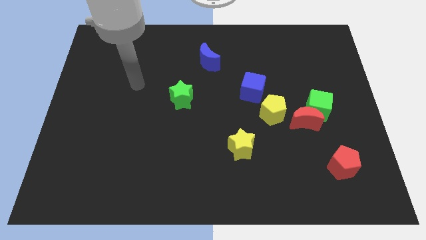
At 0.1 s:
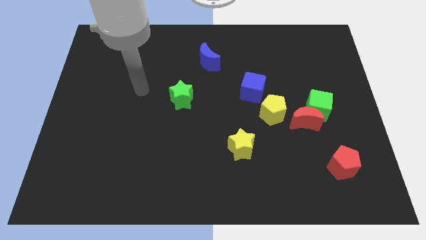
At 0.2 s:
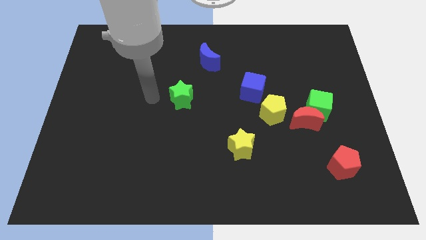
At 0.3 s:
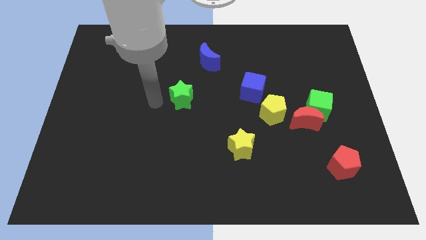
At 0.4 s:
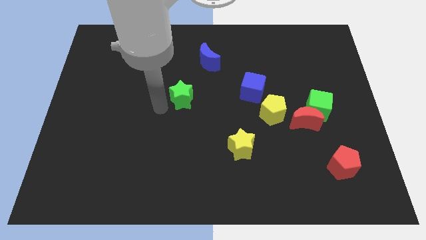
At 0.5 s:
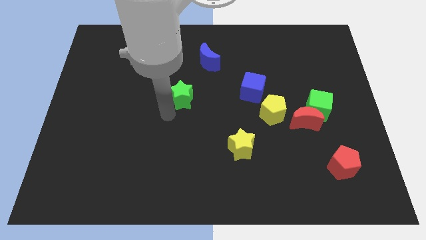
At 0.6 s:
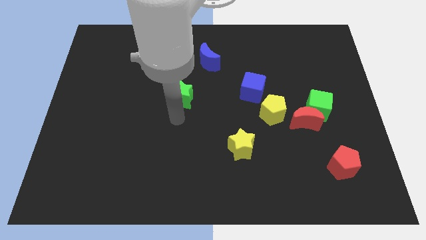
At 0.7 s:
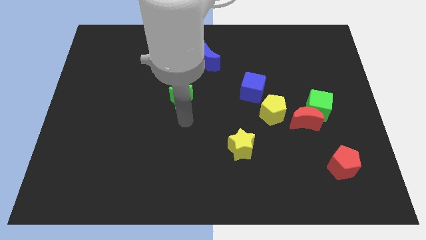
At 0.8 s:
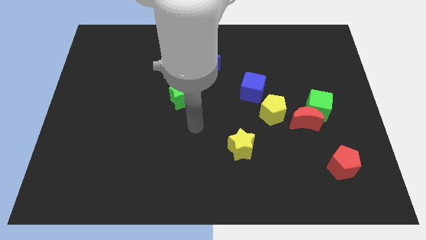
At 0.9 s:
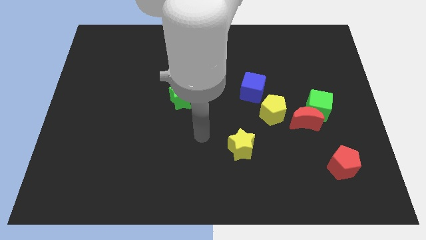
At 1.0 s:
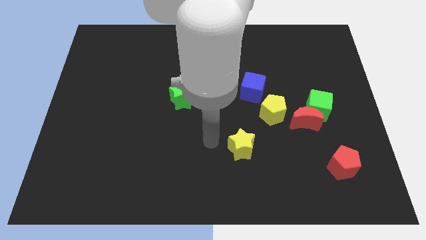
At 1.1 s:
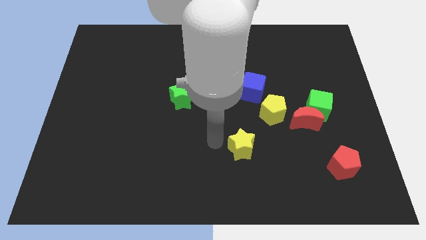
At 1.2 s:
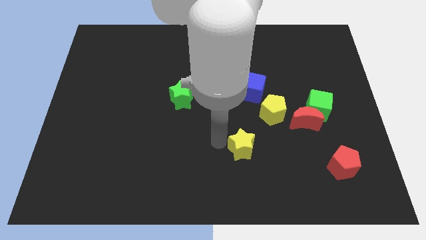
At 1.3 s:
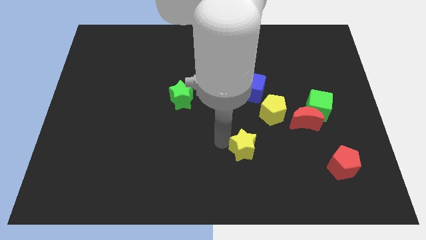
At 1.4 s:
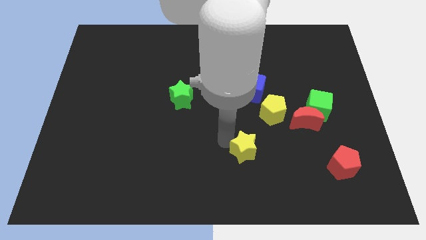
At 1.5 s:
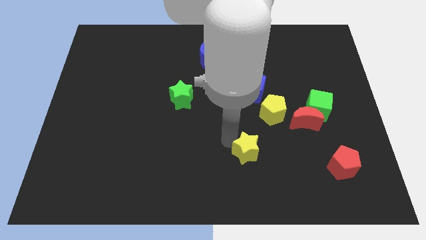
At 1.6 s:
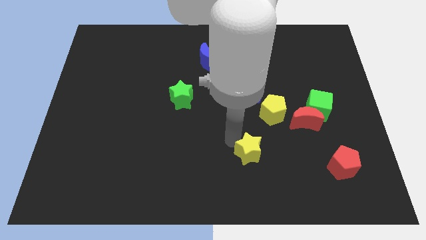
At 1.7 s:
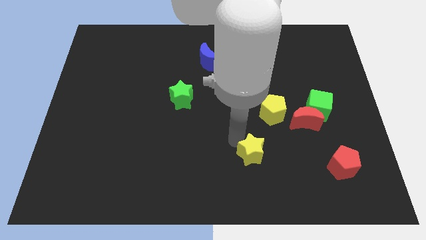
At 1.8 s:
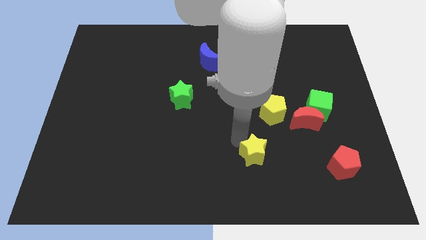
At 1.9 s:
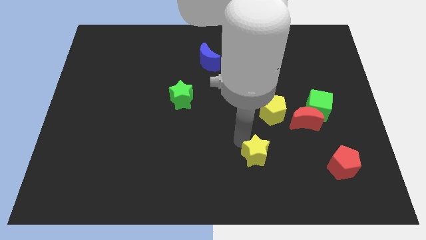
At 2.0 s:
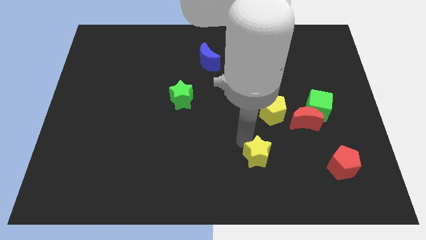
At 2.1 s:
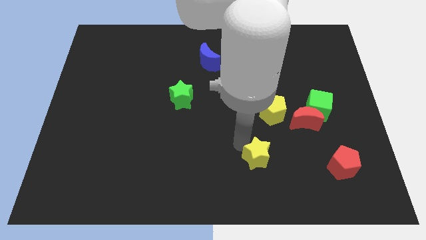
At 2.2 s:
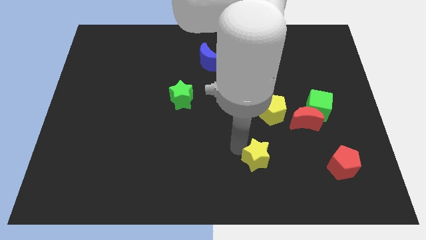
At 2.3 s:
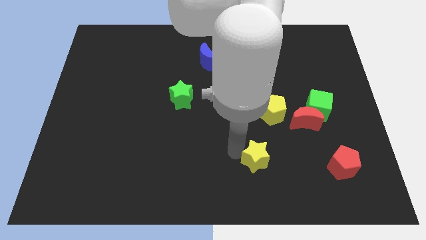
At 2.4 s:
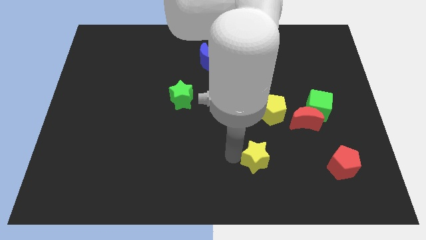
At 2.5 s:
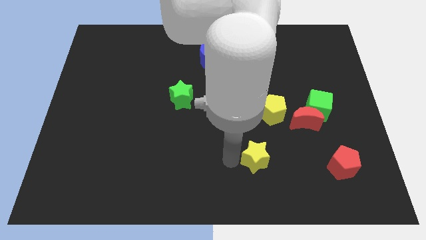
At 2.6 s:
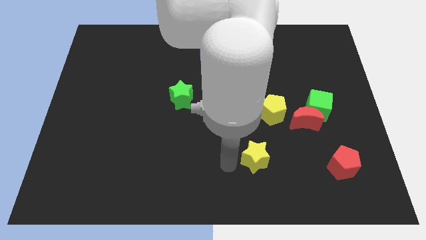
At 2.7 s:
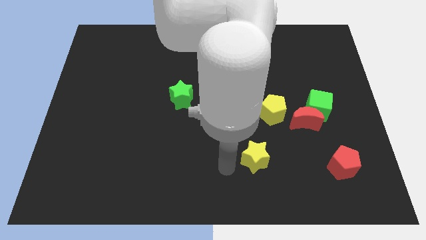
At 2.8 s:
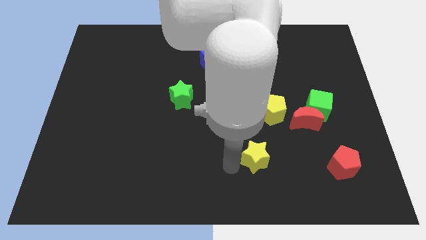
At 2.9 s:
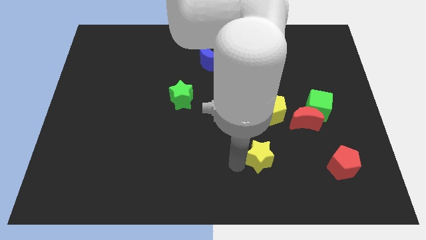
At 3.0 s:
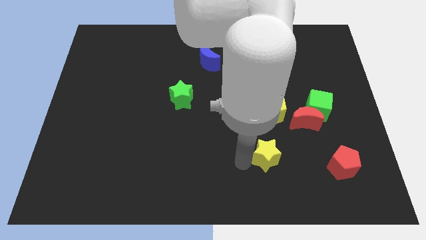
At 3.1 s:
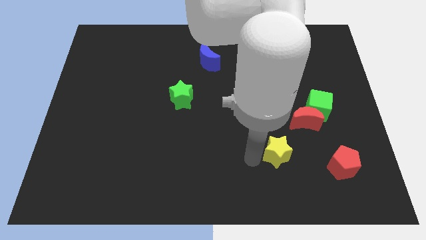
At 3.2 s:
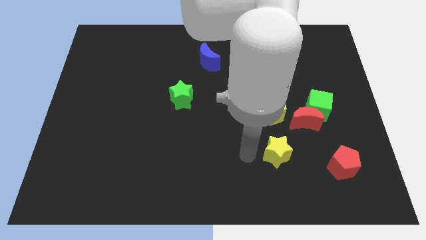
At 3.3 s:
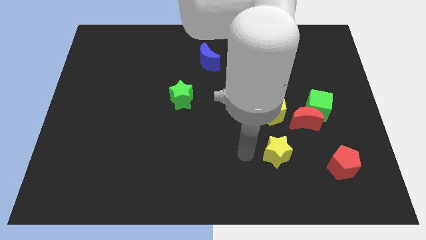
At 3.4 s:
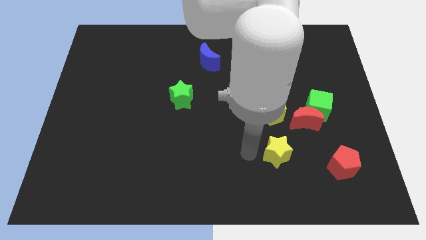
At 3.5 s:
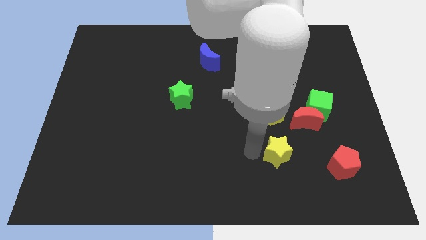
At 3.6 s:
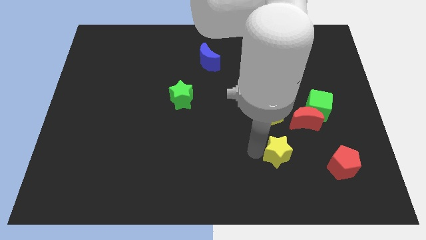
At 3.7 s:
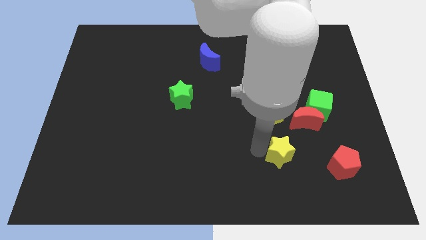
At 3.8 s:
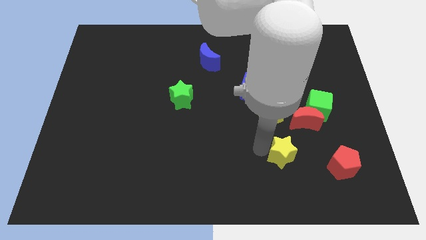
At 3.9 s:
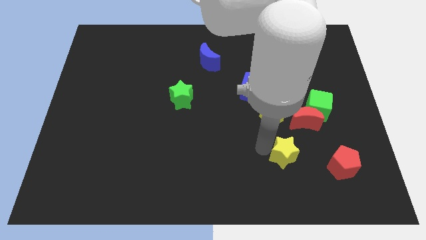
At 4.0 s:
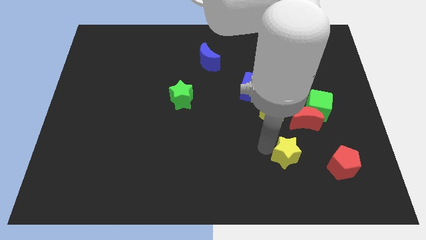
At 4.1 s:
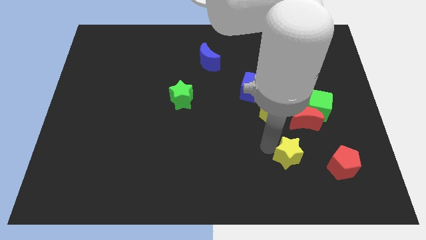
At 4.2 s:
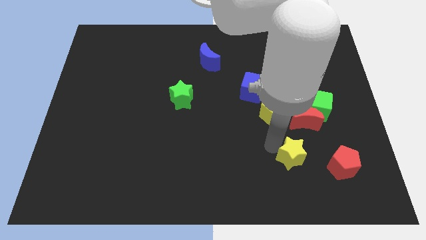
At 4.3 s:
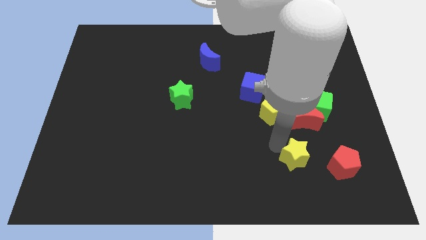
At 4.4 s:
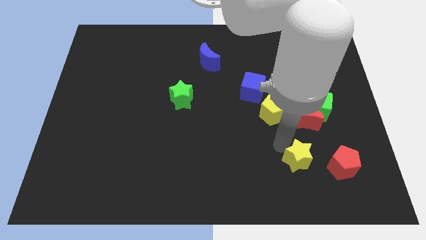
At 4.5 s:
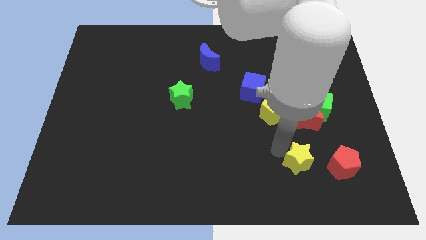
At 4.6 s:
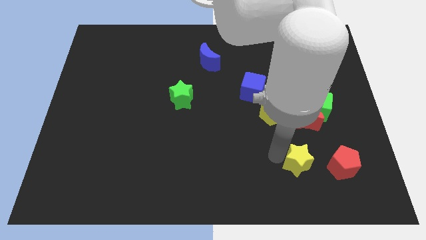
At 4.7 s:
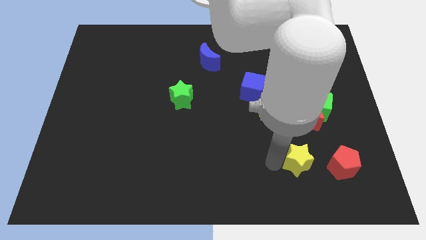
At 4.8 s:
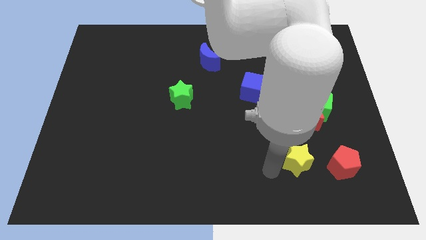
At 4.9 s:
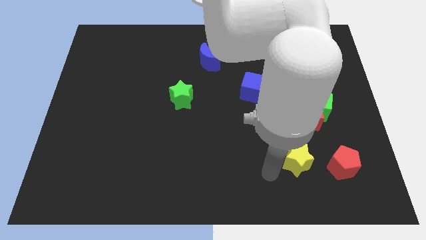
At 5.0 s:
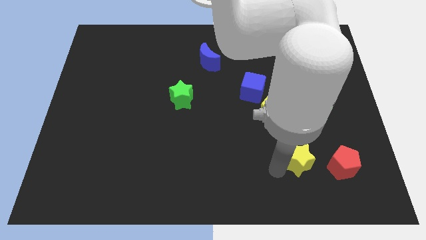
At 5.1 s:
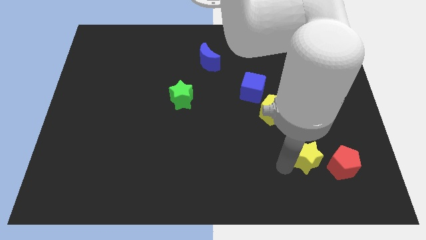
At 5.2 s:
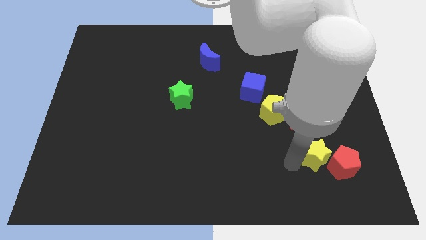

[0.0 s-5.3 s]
put the yellow star below the green cube

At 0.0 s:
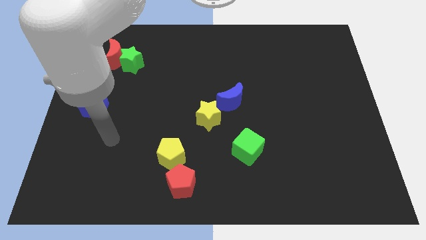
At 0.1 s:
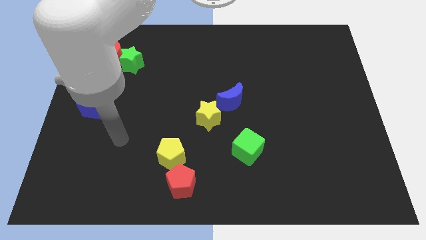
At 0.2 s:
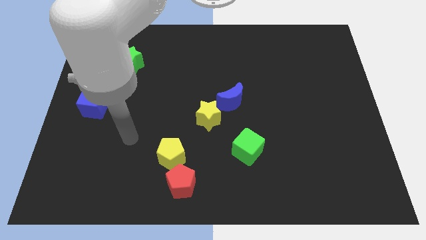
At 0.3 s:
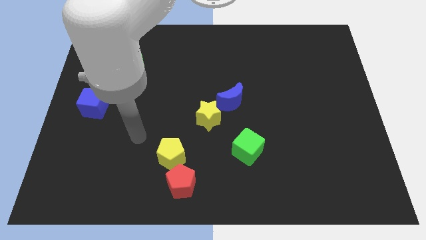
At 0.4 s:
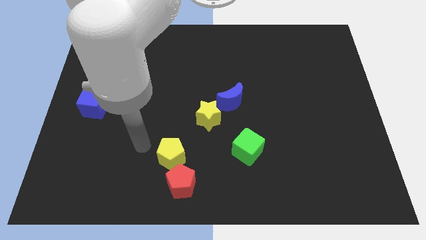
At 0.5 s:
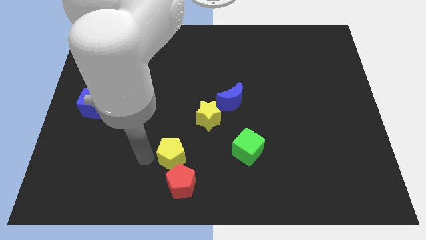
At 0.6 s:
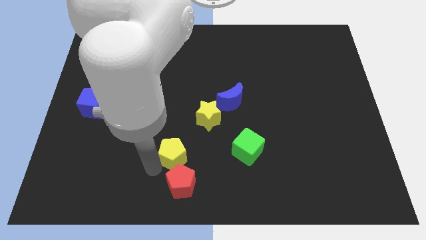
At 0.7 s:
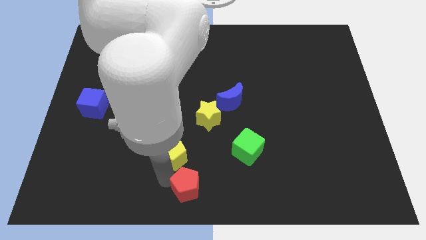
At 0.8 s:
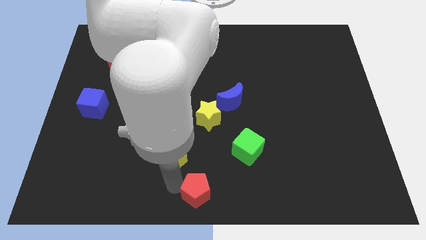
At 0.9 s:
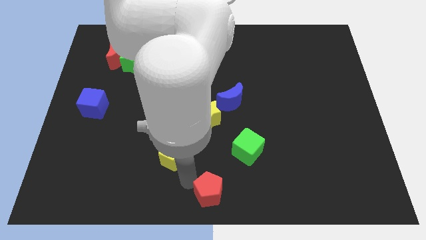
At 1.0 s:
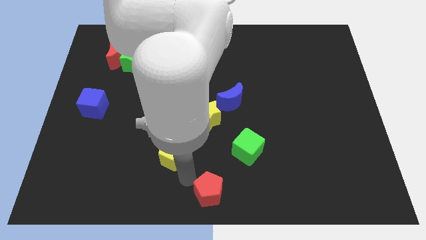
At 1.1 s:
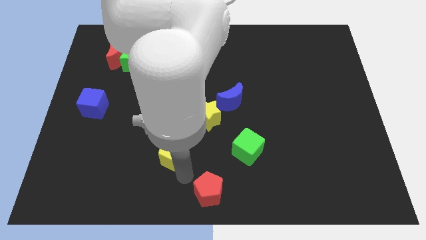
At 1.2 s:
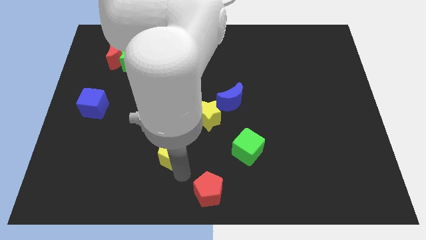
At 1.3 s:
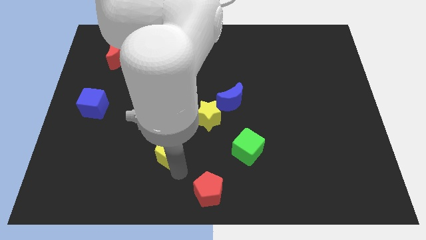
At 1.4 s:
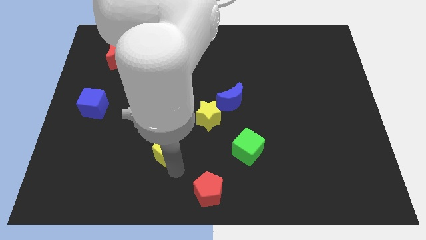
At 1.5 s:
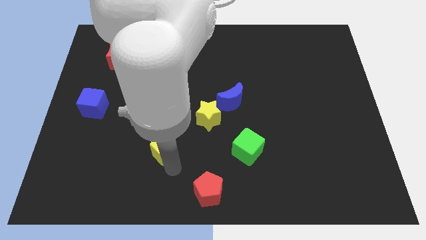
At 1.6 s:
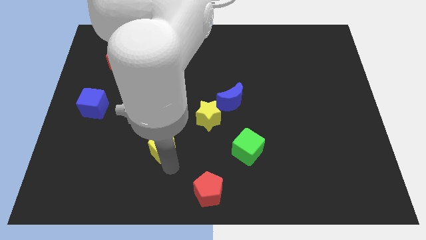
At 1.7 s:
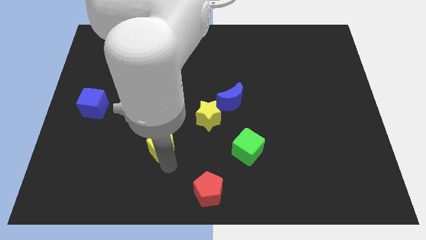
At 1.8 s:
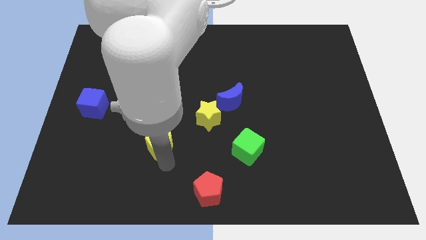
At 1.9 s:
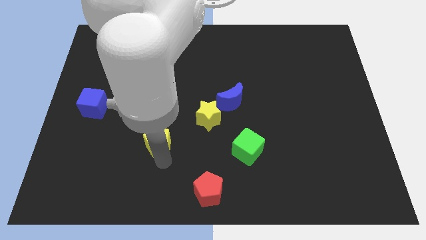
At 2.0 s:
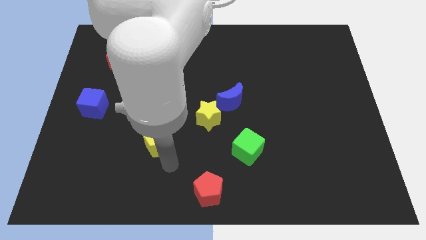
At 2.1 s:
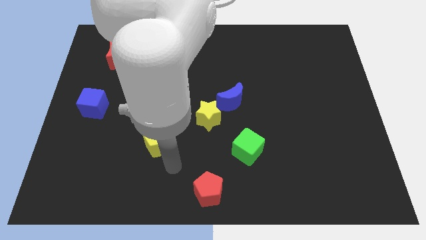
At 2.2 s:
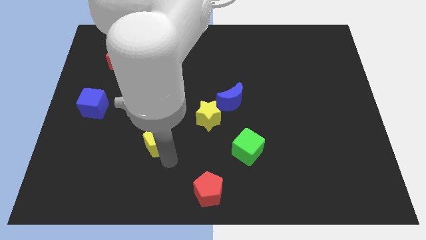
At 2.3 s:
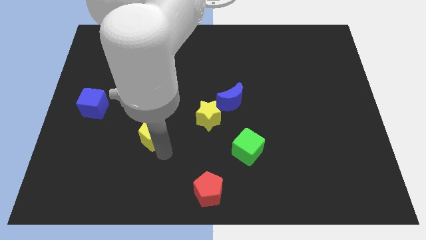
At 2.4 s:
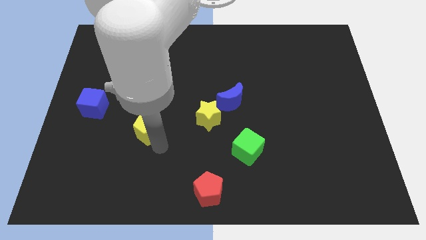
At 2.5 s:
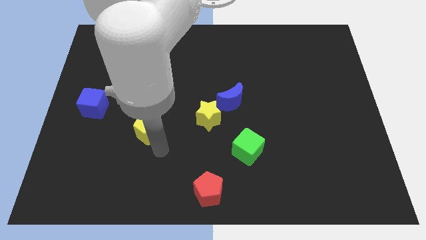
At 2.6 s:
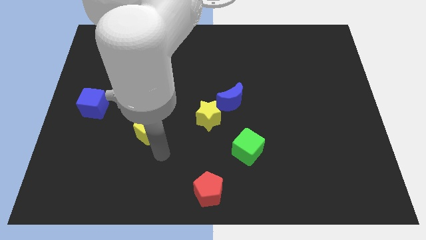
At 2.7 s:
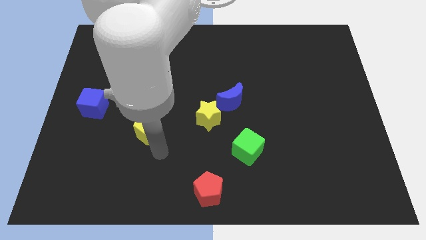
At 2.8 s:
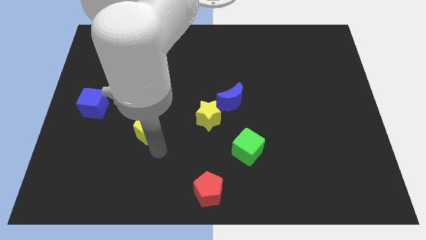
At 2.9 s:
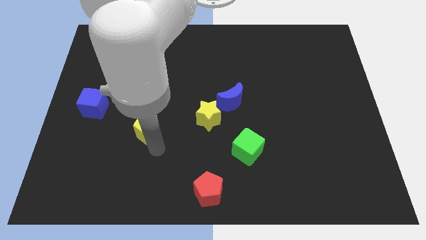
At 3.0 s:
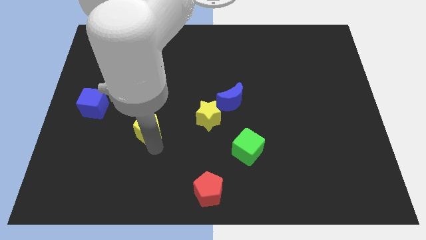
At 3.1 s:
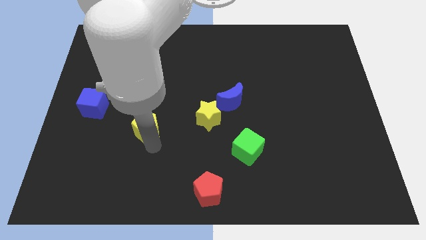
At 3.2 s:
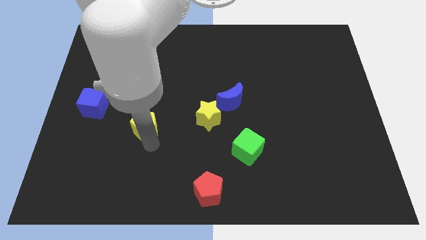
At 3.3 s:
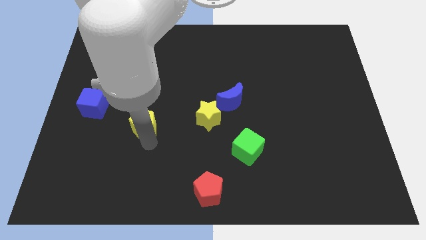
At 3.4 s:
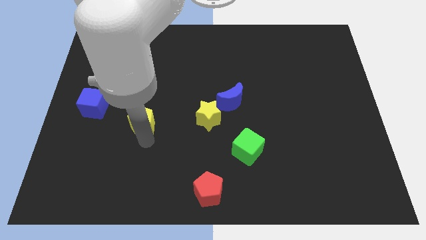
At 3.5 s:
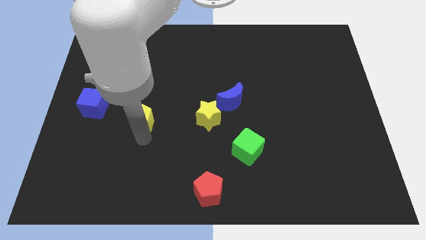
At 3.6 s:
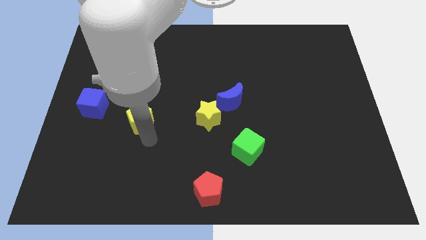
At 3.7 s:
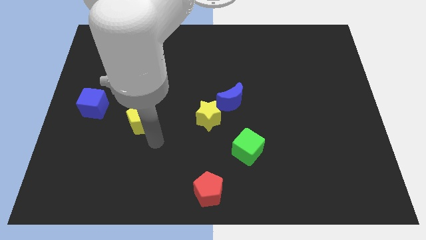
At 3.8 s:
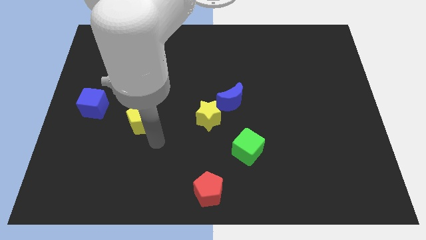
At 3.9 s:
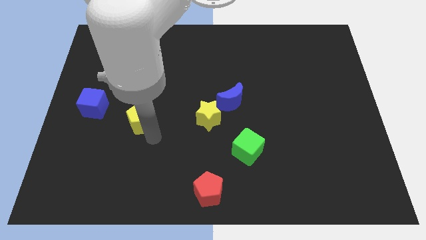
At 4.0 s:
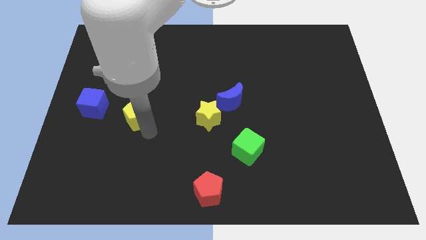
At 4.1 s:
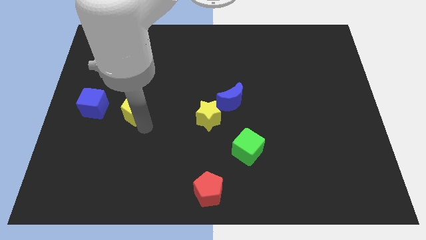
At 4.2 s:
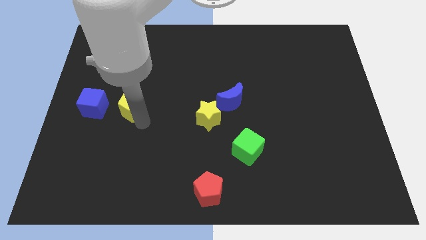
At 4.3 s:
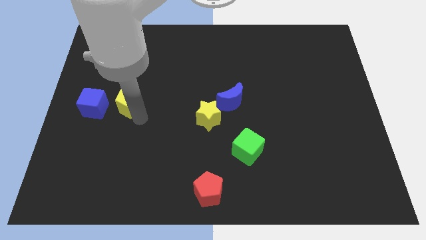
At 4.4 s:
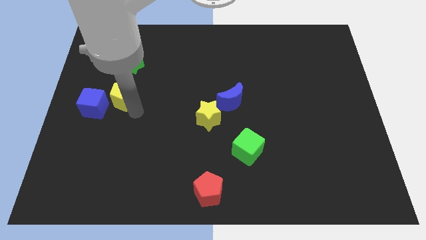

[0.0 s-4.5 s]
slide the yellow pentagon to the bottom side of the red moon
